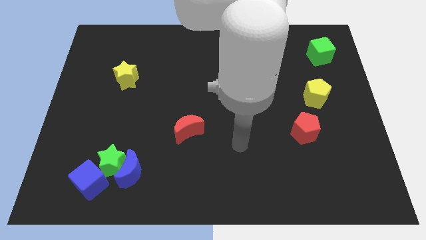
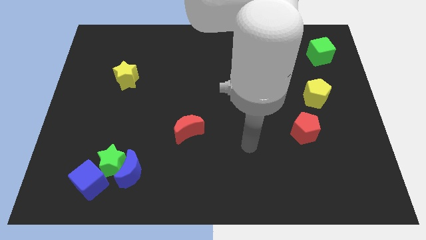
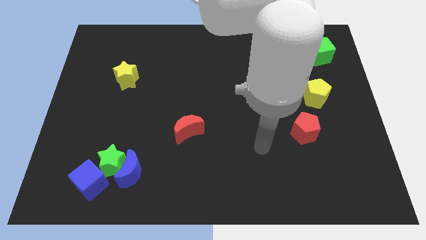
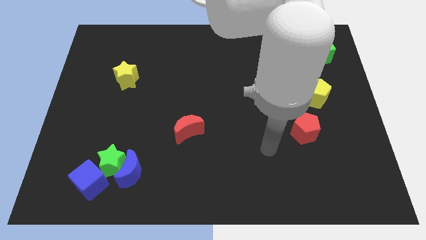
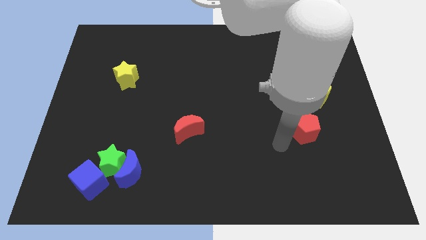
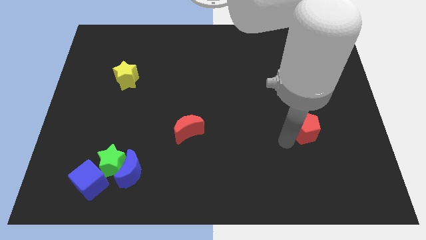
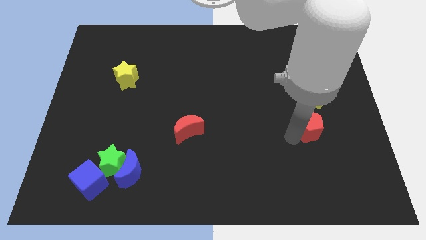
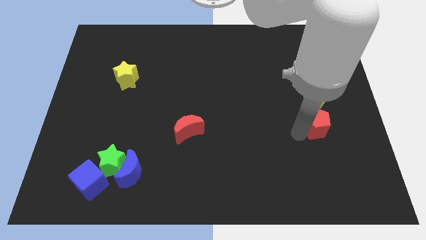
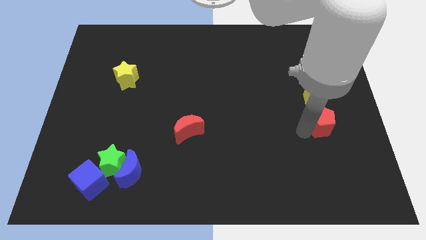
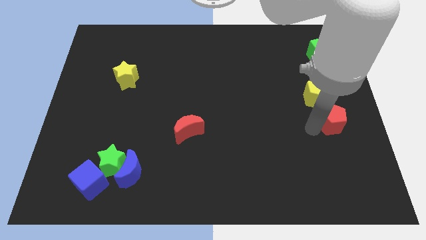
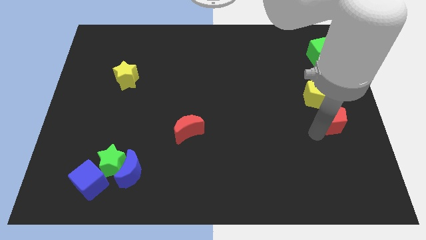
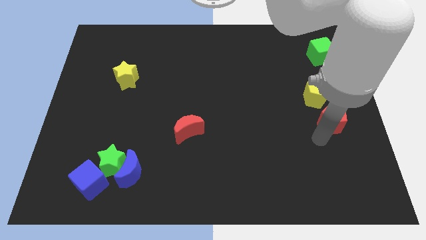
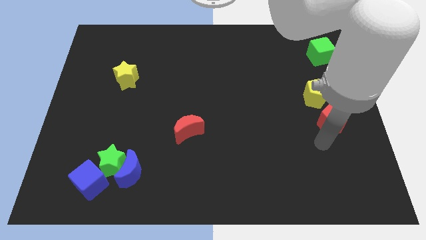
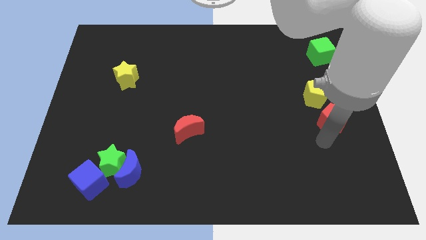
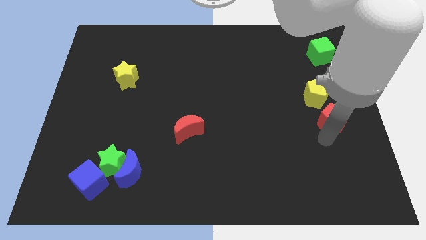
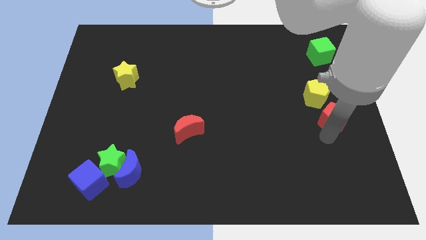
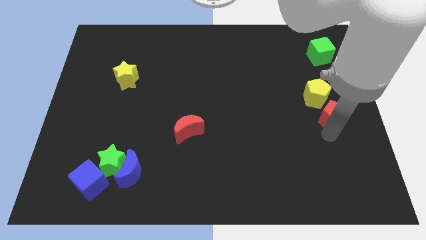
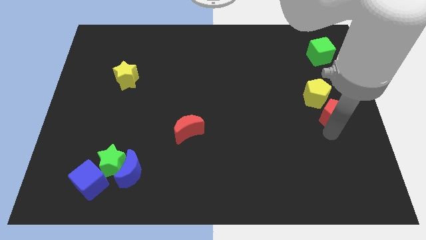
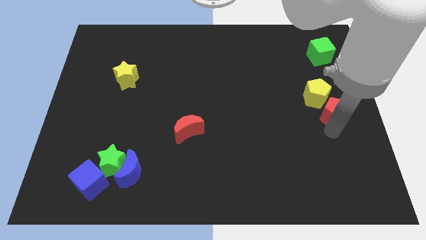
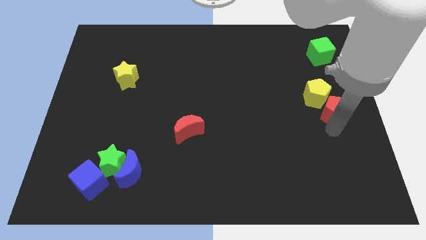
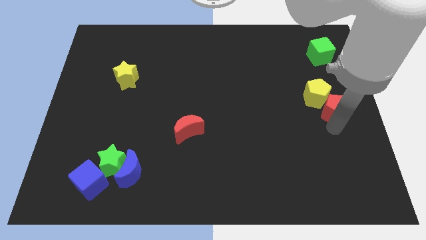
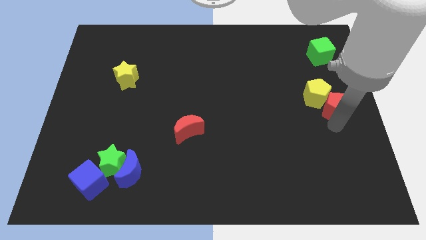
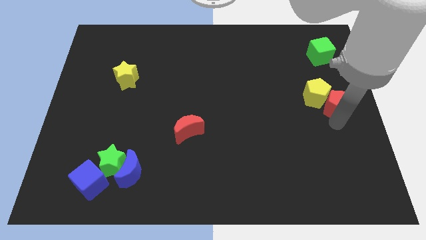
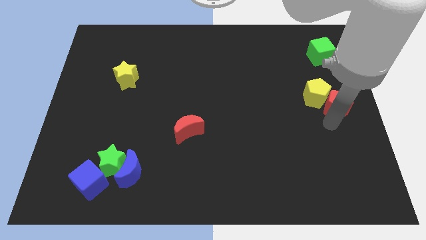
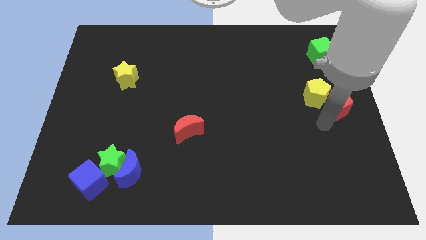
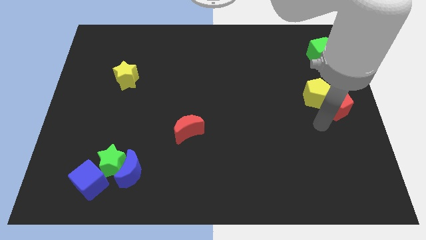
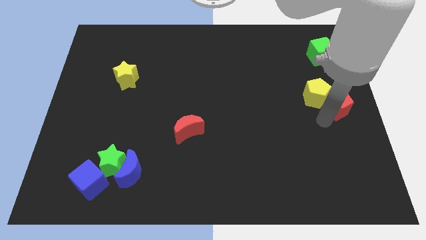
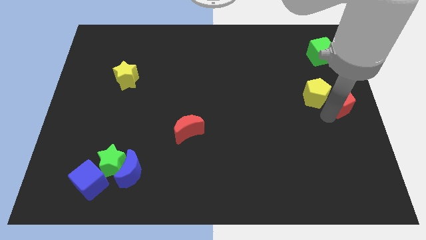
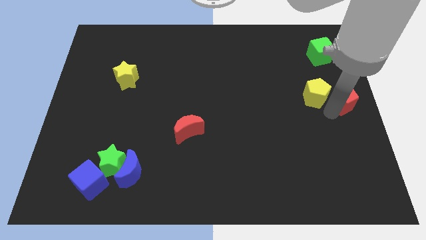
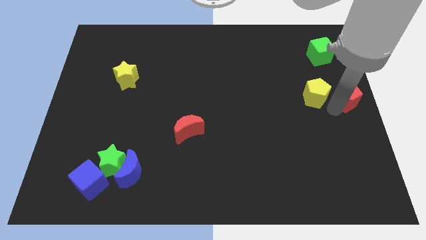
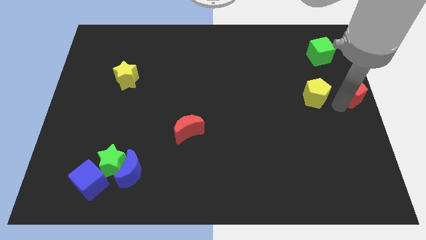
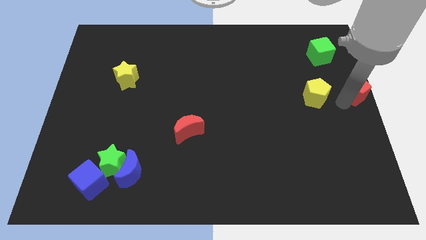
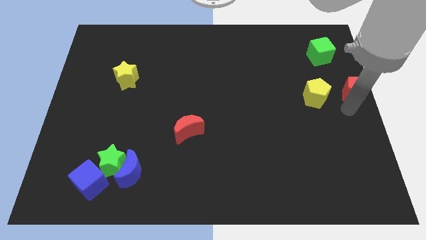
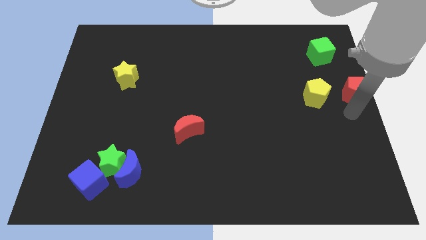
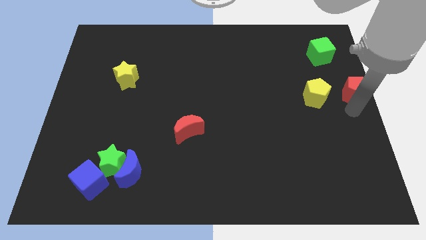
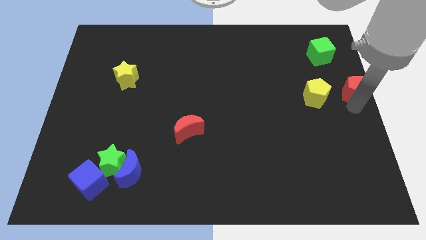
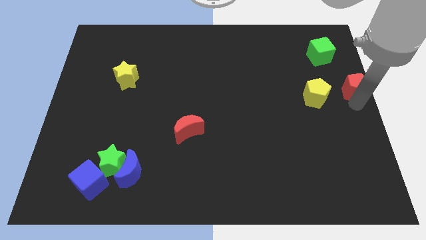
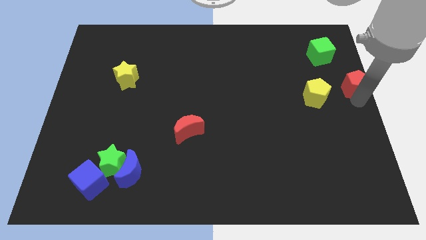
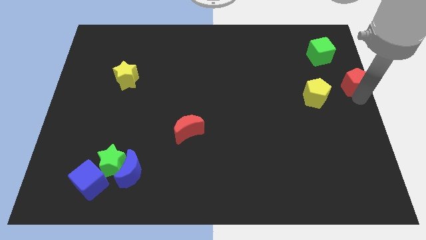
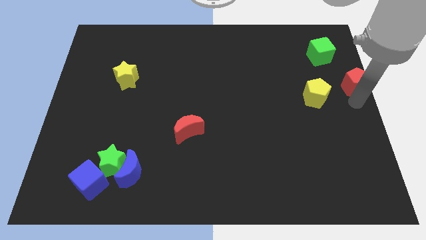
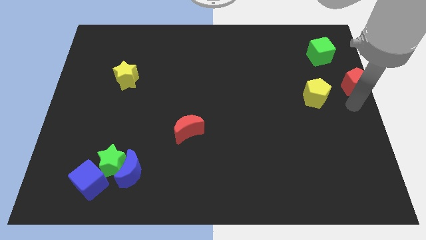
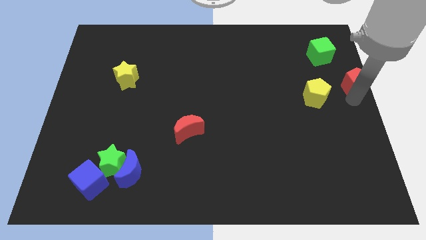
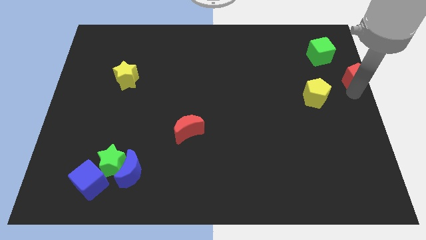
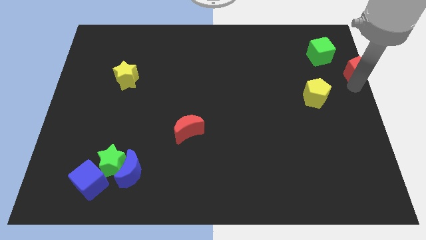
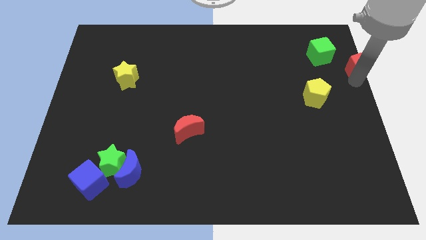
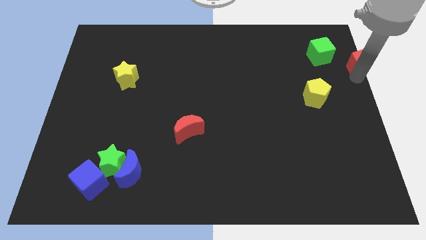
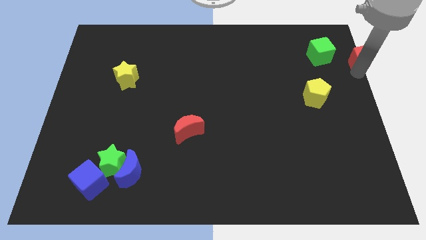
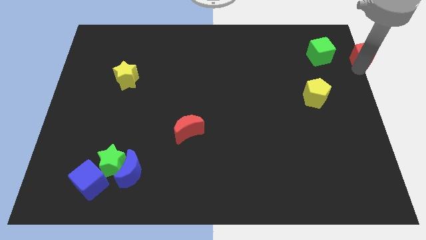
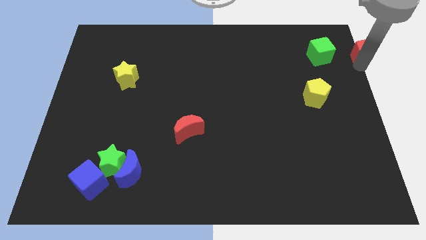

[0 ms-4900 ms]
push the red pentagon to the top right

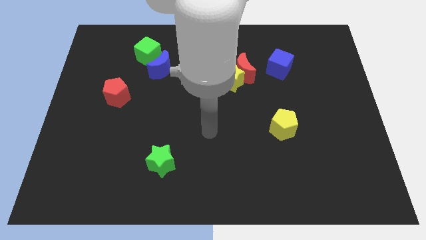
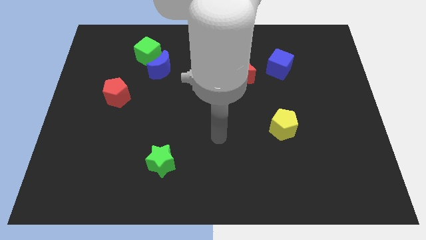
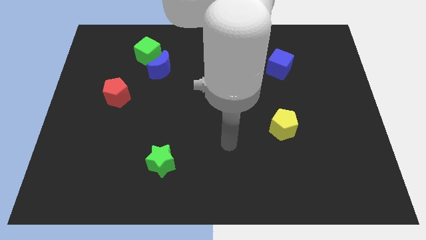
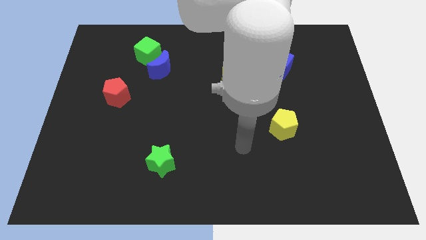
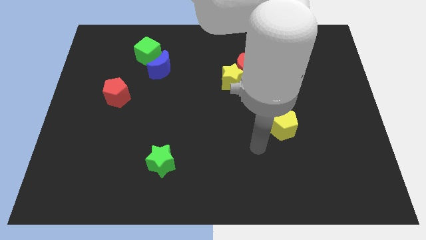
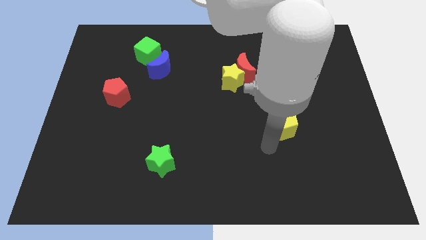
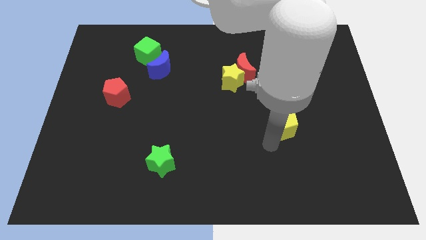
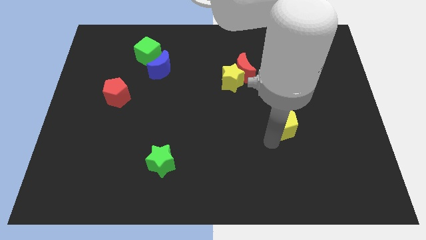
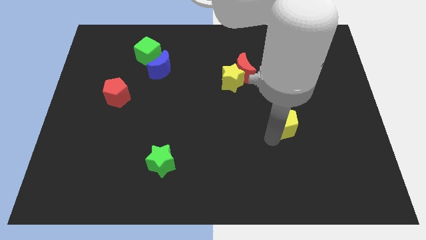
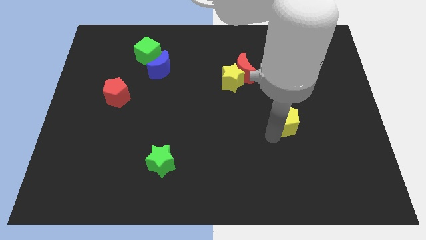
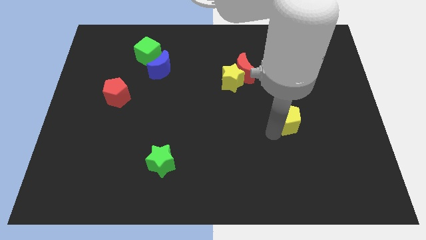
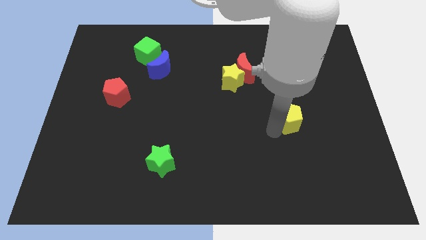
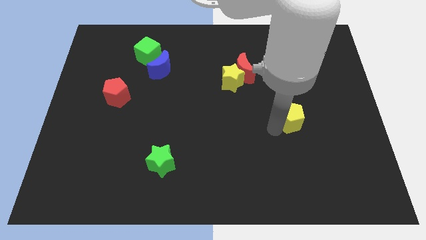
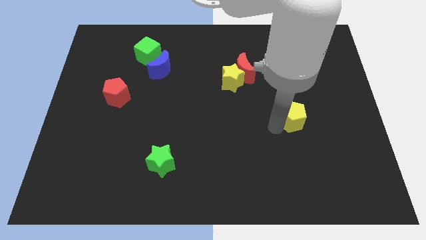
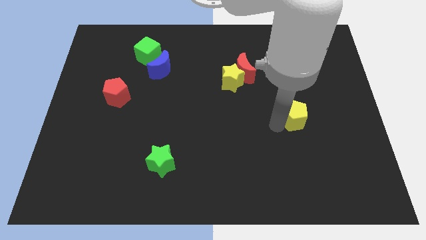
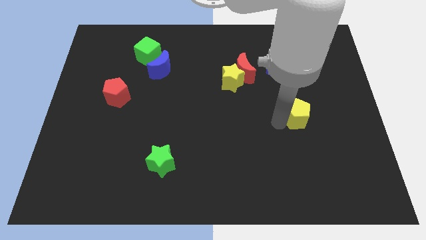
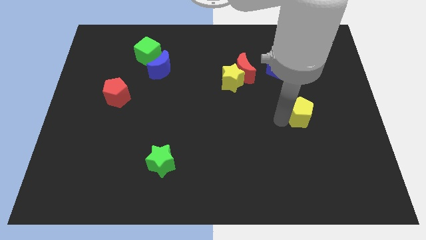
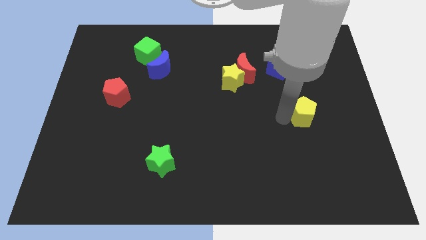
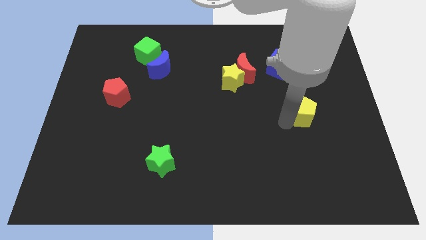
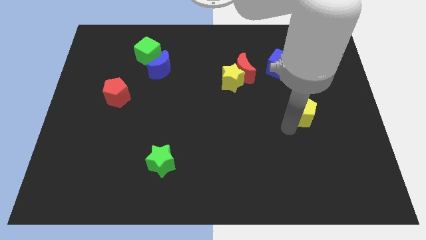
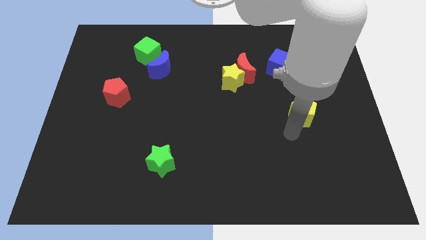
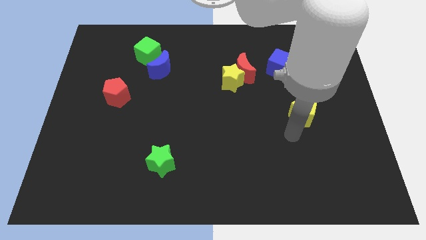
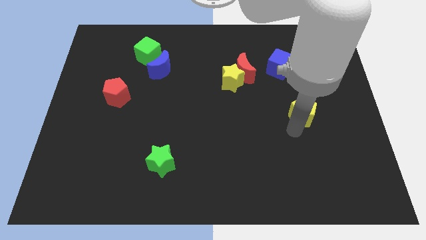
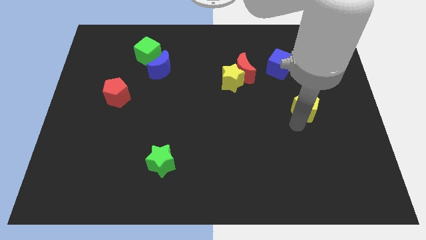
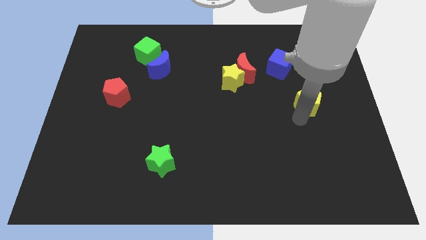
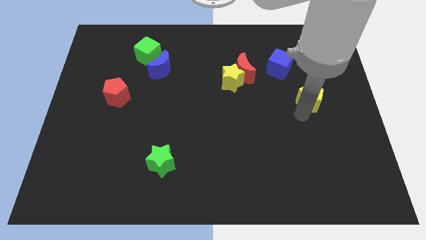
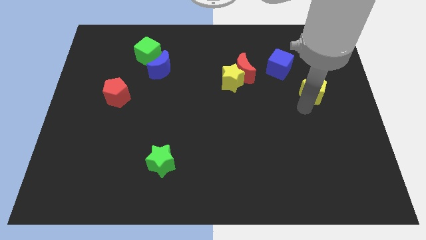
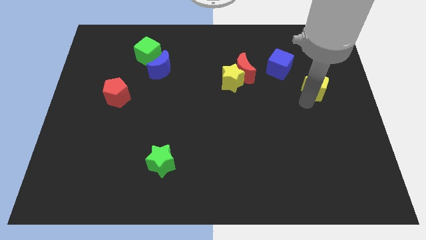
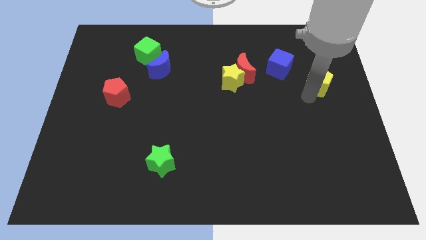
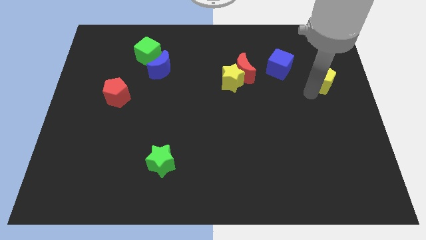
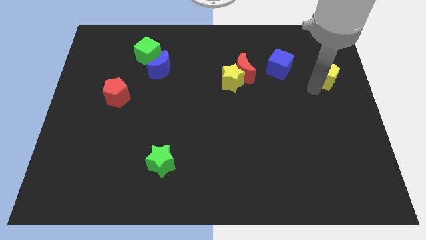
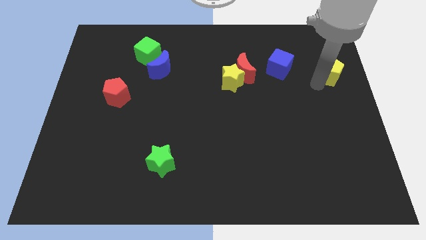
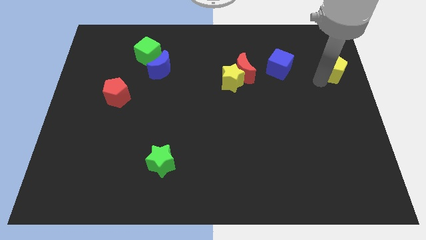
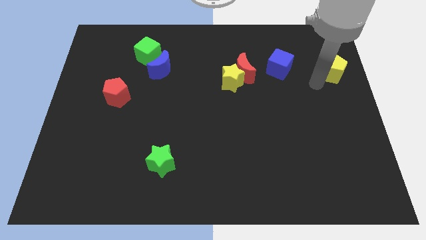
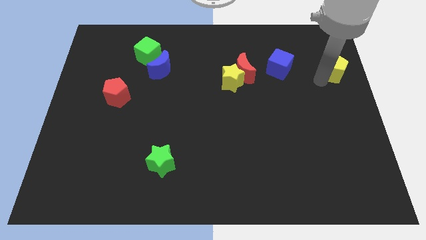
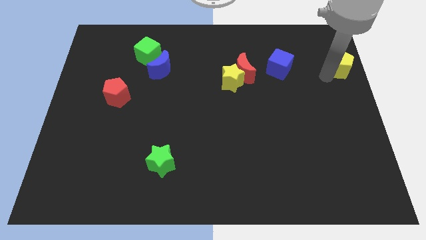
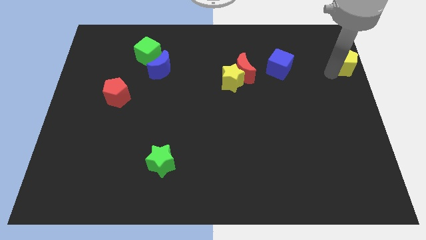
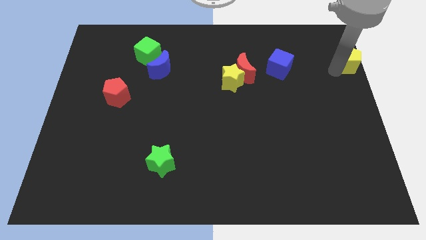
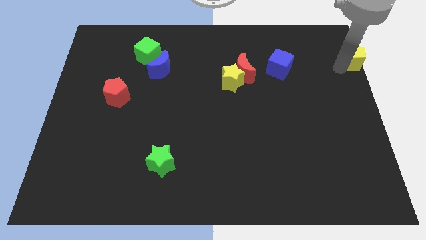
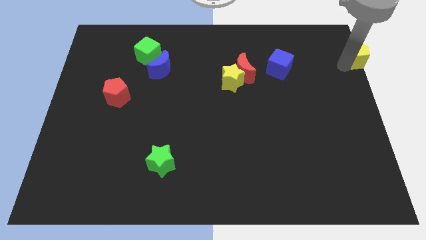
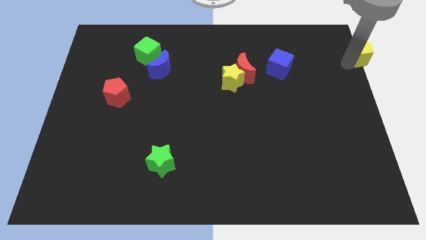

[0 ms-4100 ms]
push the yellow pentagon to the top right
